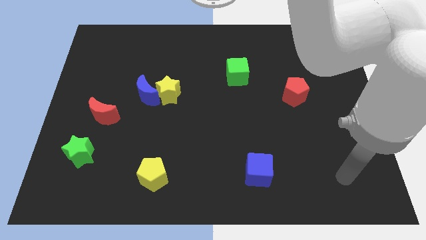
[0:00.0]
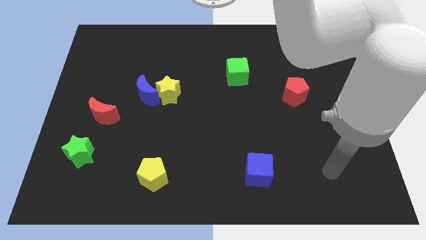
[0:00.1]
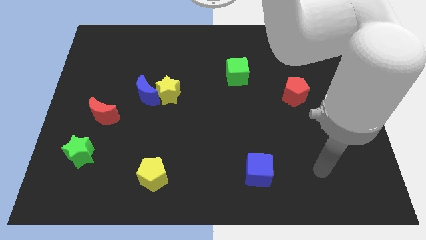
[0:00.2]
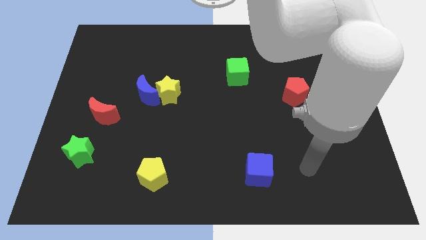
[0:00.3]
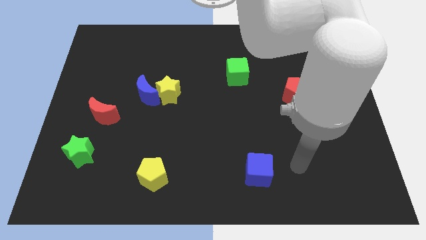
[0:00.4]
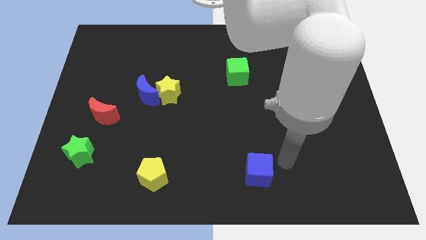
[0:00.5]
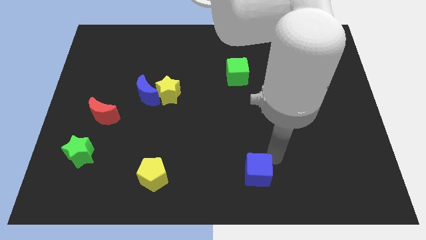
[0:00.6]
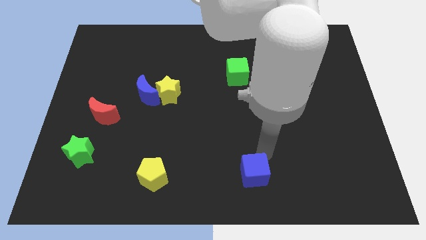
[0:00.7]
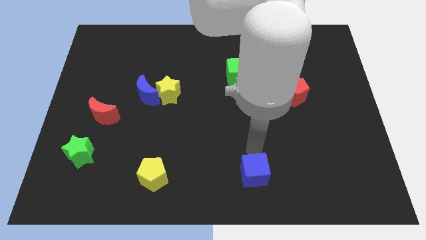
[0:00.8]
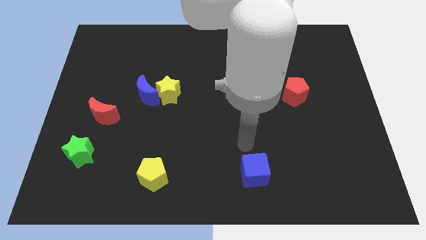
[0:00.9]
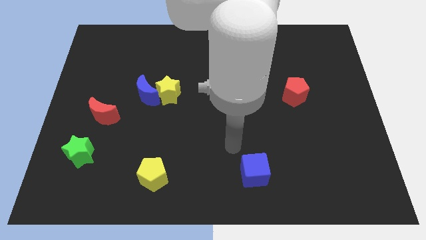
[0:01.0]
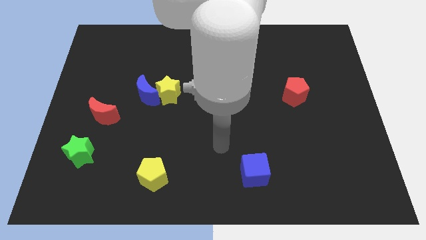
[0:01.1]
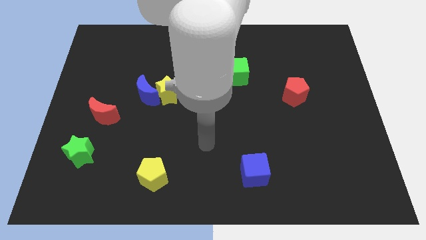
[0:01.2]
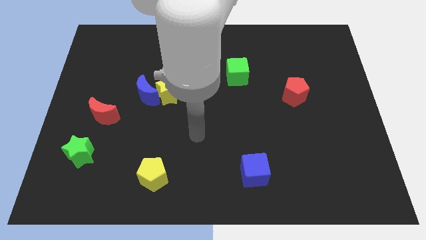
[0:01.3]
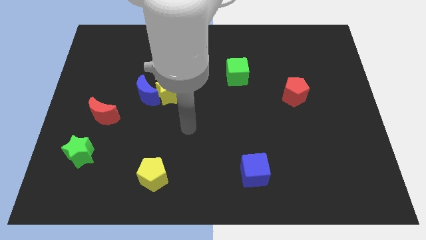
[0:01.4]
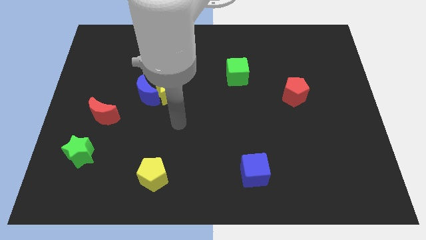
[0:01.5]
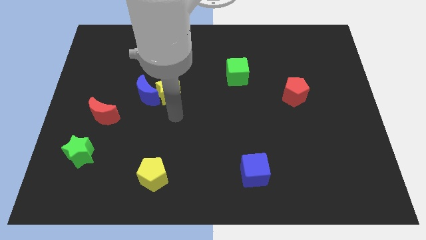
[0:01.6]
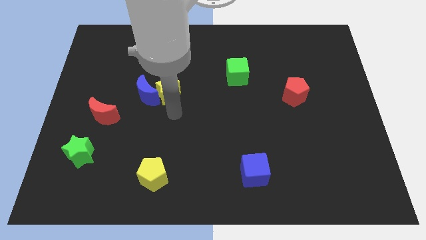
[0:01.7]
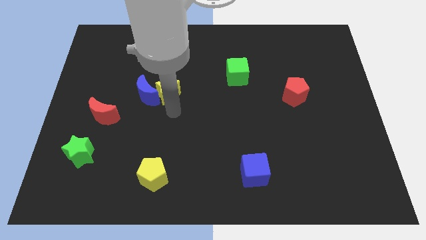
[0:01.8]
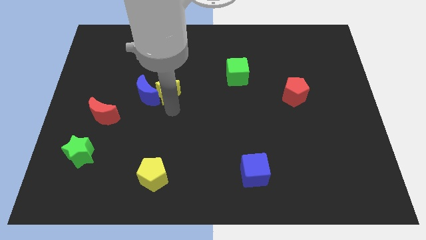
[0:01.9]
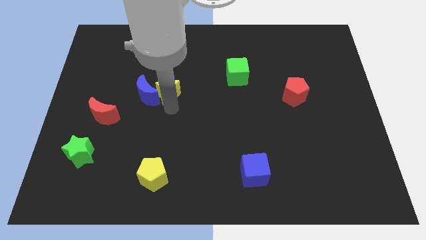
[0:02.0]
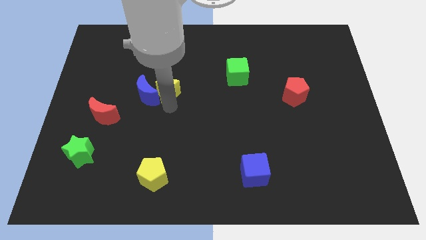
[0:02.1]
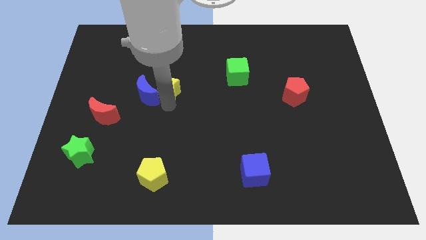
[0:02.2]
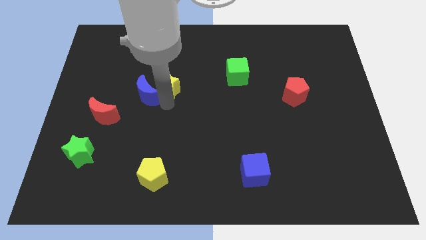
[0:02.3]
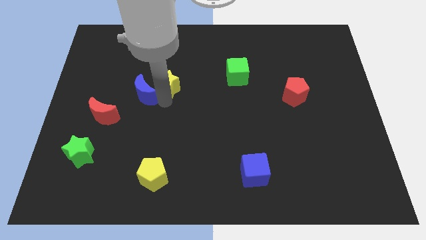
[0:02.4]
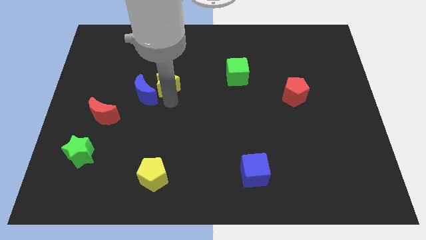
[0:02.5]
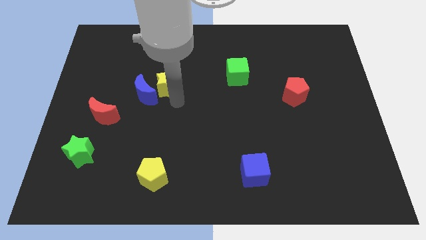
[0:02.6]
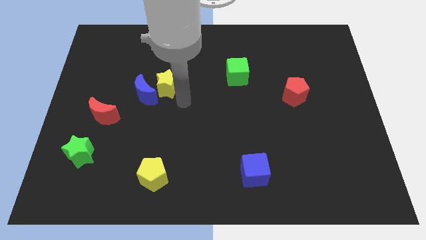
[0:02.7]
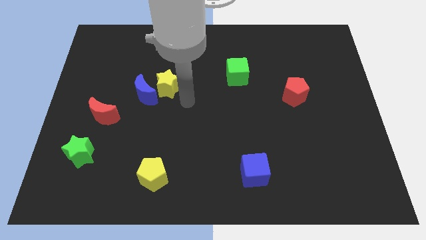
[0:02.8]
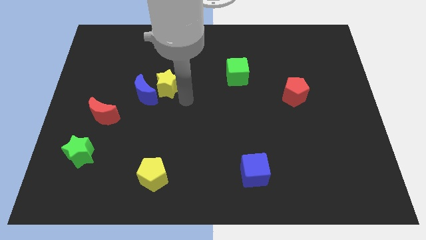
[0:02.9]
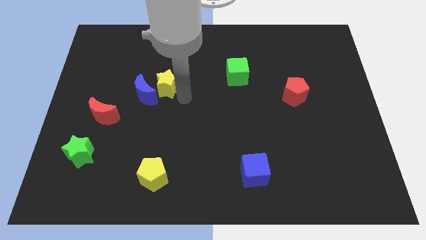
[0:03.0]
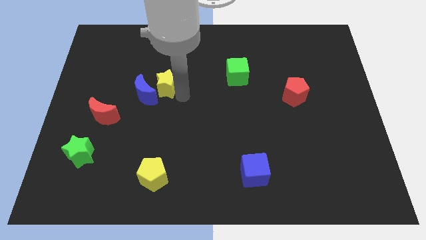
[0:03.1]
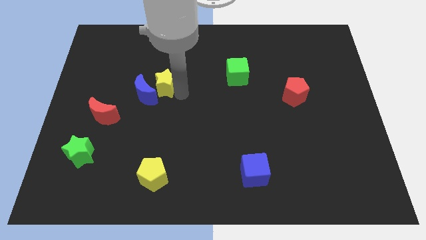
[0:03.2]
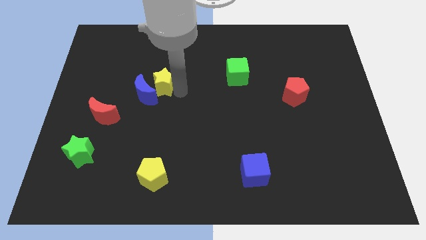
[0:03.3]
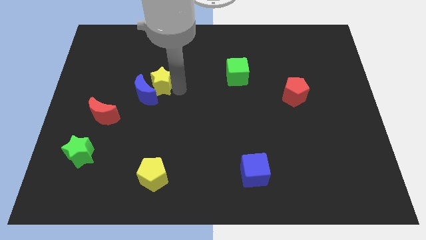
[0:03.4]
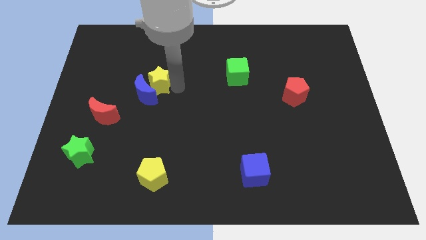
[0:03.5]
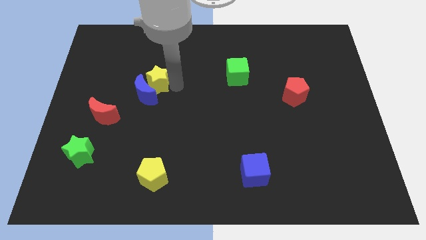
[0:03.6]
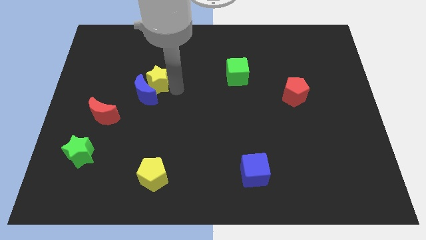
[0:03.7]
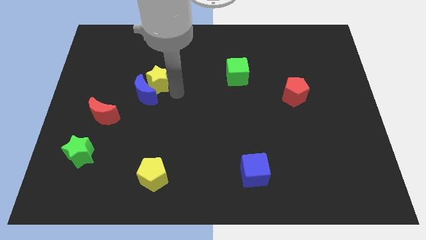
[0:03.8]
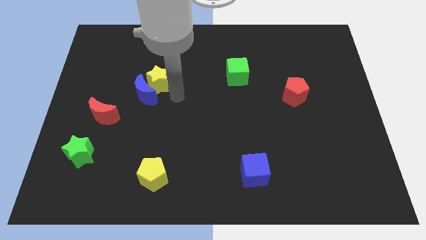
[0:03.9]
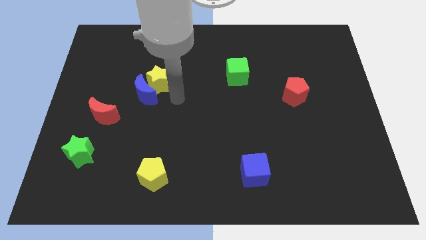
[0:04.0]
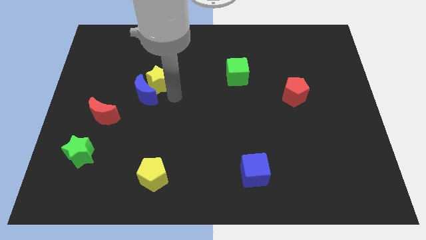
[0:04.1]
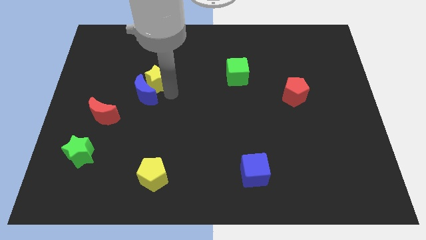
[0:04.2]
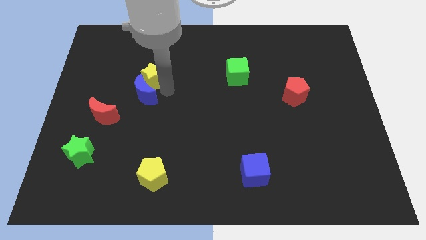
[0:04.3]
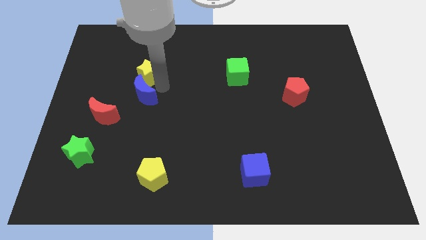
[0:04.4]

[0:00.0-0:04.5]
move the yellow star up and then to the left a little

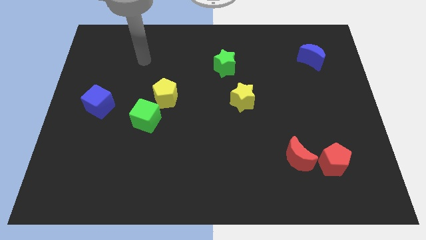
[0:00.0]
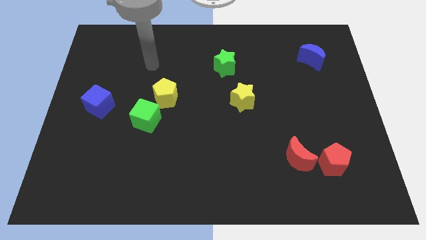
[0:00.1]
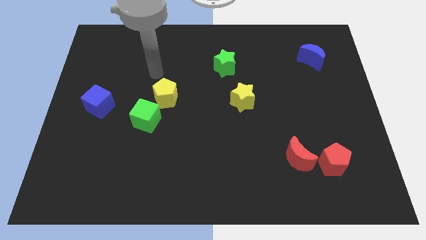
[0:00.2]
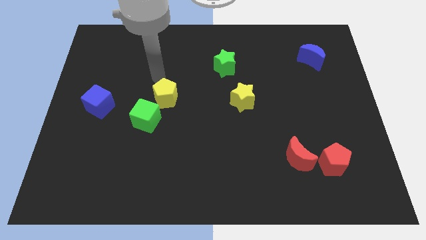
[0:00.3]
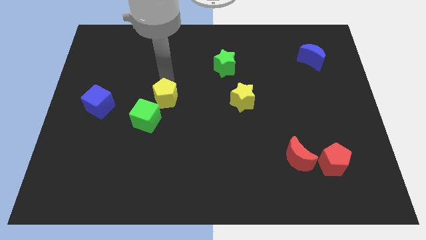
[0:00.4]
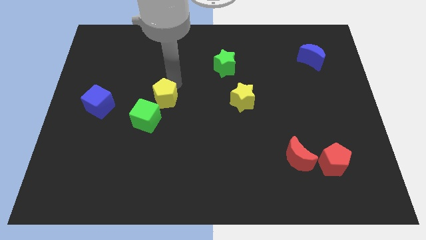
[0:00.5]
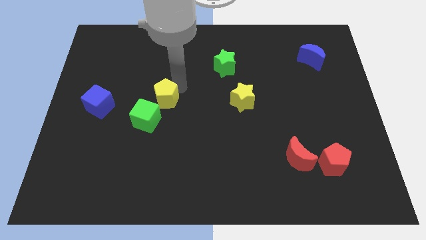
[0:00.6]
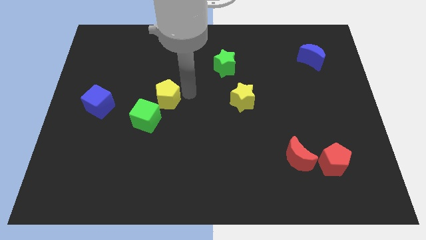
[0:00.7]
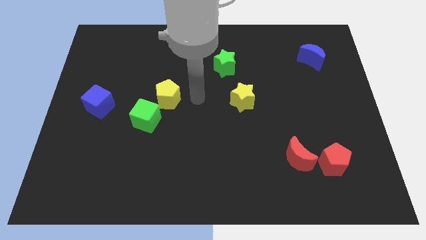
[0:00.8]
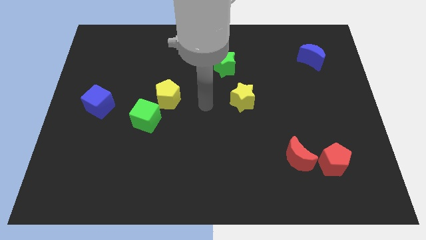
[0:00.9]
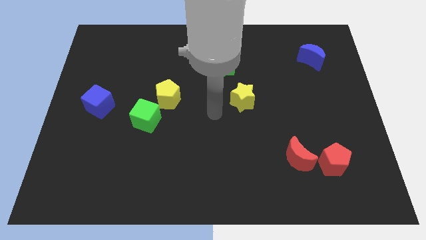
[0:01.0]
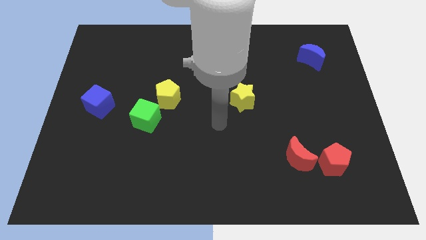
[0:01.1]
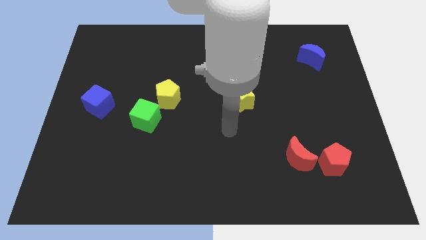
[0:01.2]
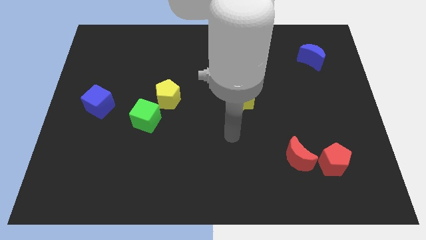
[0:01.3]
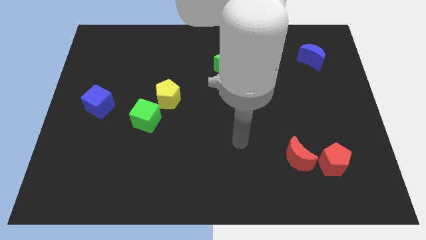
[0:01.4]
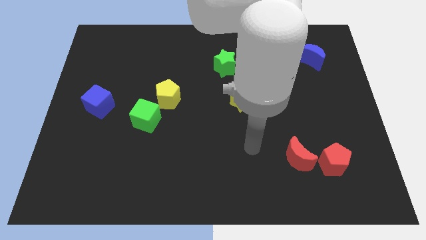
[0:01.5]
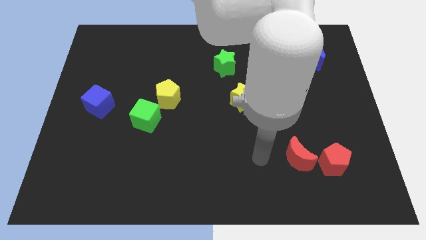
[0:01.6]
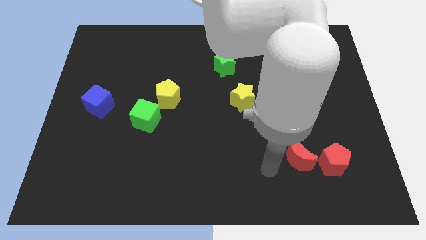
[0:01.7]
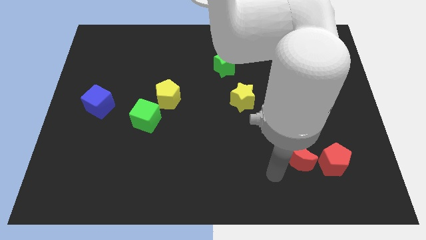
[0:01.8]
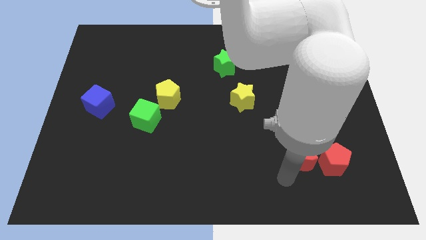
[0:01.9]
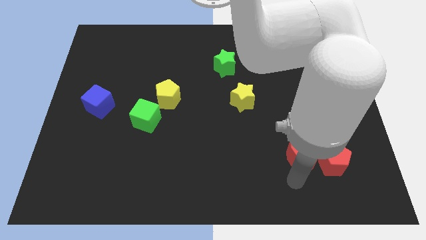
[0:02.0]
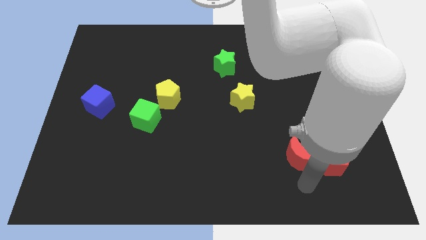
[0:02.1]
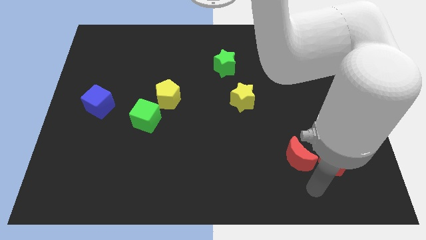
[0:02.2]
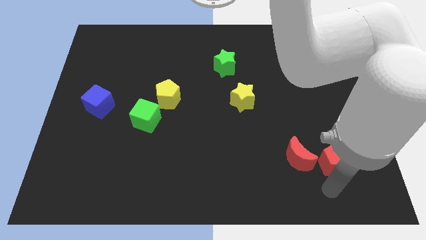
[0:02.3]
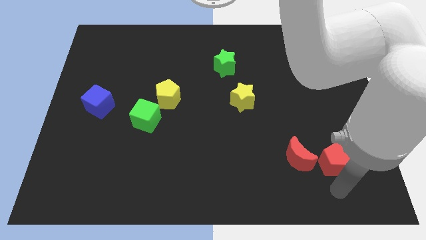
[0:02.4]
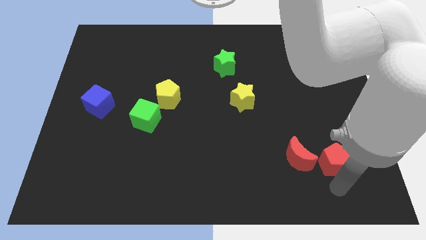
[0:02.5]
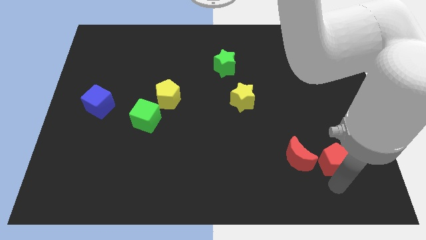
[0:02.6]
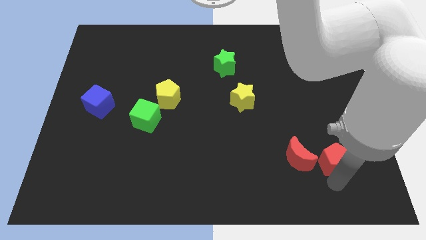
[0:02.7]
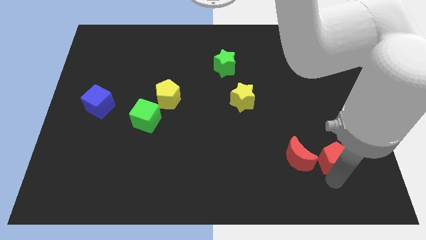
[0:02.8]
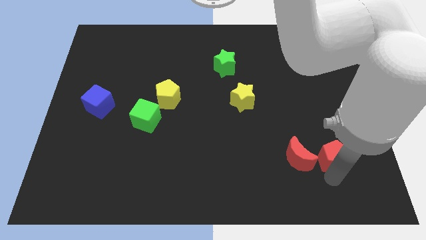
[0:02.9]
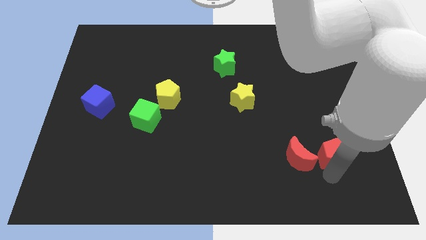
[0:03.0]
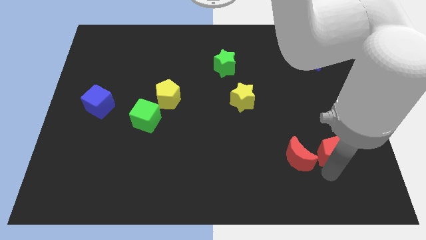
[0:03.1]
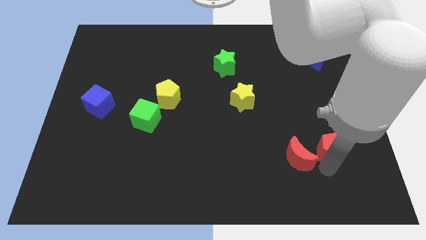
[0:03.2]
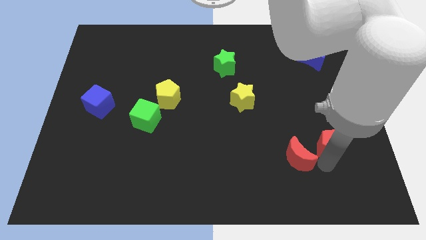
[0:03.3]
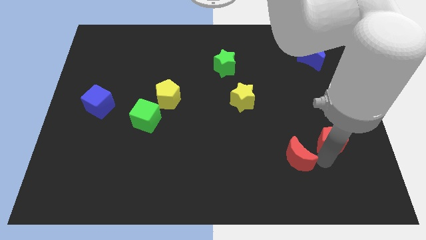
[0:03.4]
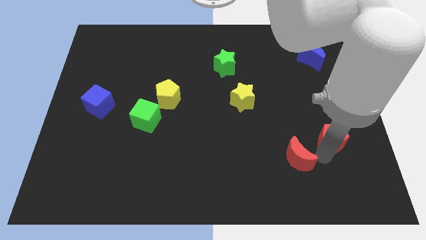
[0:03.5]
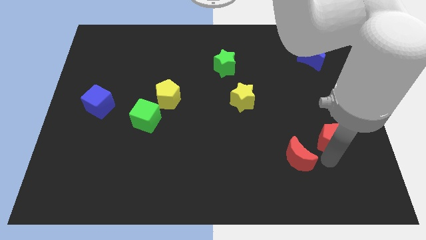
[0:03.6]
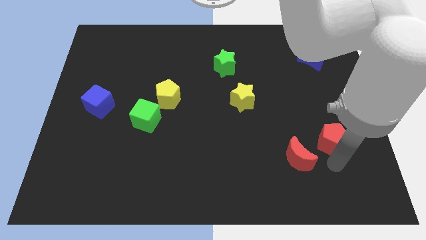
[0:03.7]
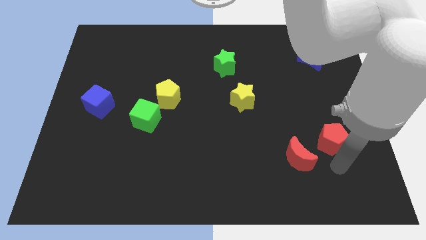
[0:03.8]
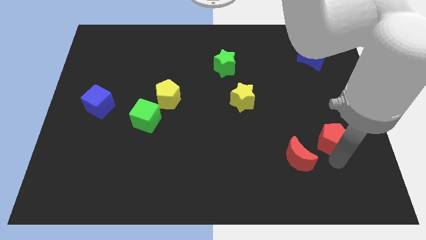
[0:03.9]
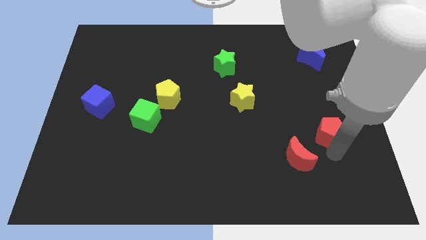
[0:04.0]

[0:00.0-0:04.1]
push the red pentagon slightly upwards
